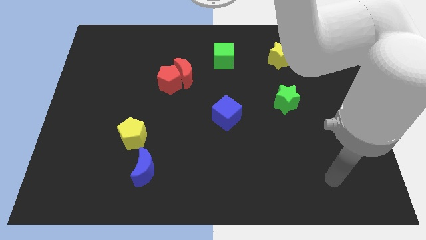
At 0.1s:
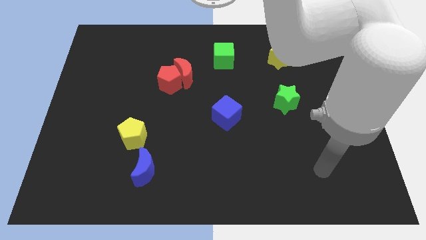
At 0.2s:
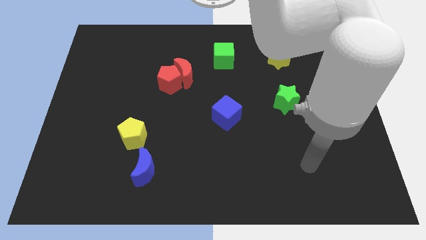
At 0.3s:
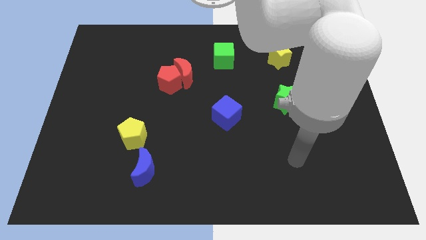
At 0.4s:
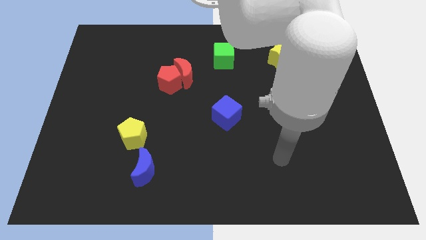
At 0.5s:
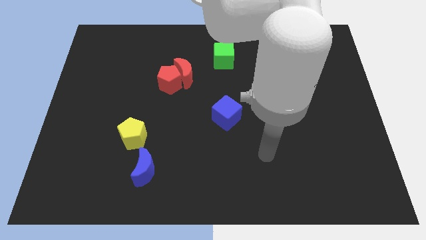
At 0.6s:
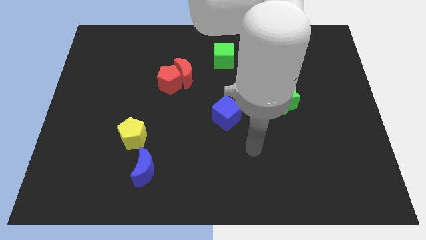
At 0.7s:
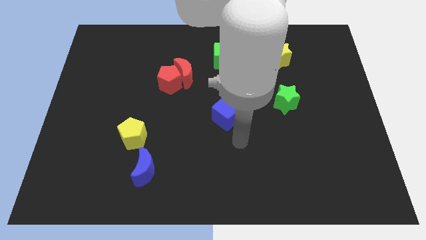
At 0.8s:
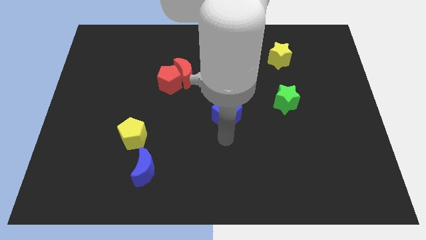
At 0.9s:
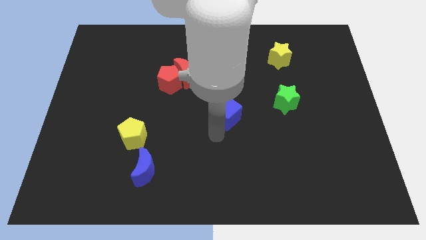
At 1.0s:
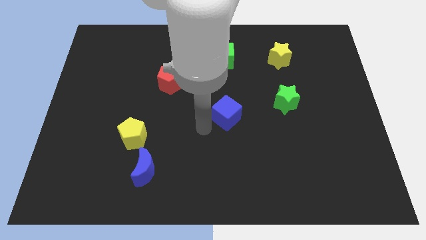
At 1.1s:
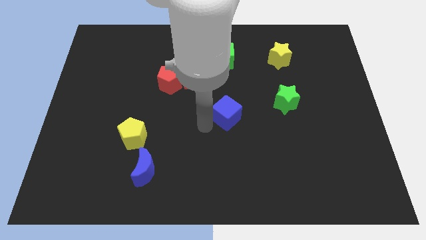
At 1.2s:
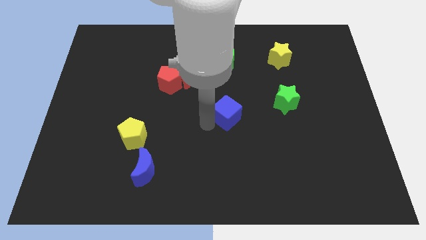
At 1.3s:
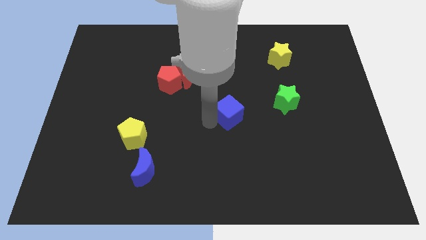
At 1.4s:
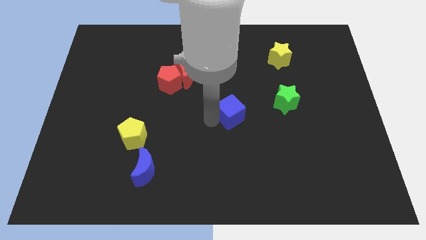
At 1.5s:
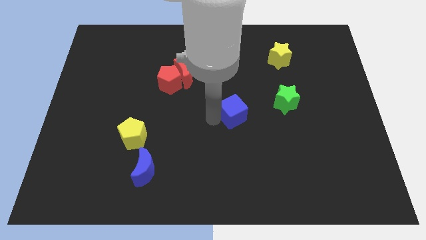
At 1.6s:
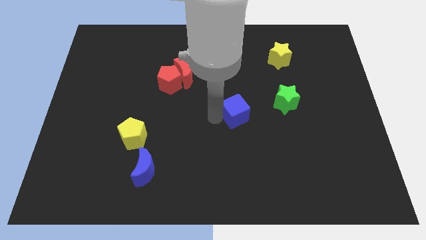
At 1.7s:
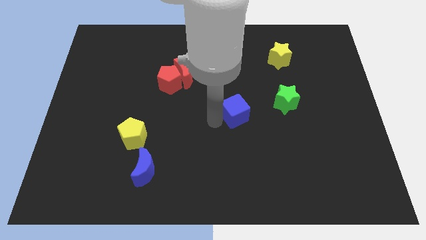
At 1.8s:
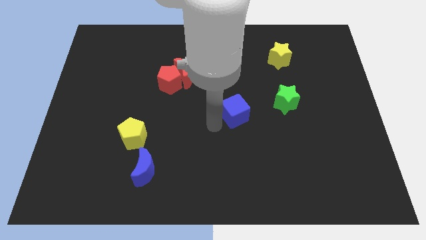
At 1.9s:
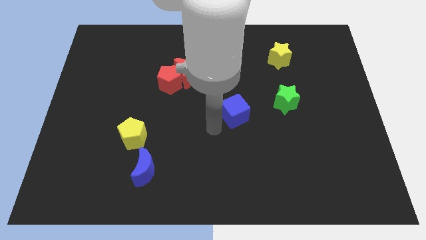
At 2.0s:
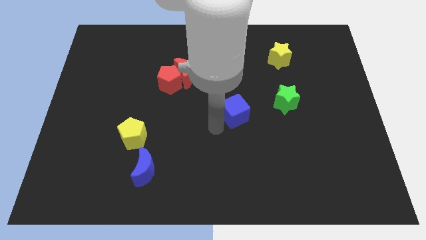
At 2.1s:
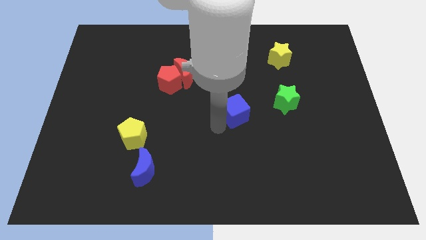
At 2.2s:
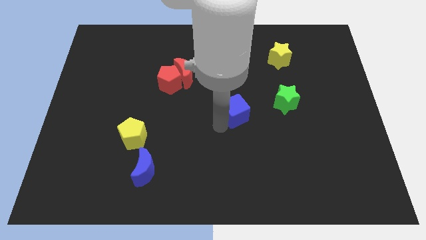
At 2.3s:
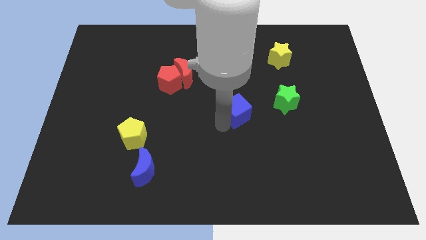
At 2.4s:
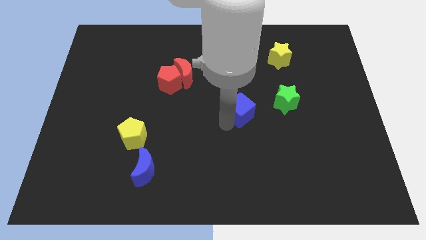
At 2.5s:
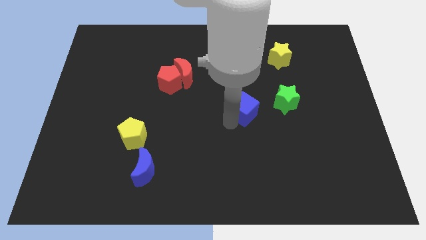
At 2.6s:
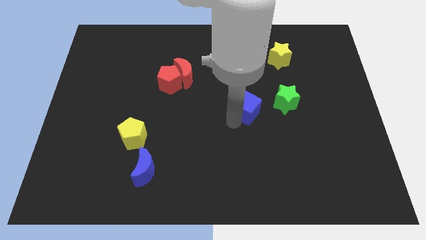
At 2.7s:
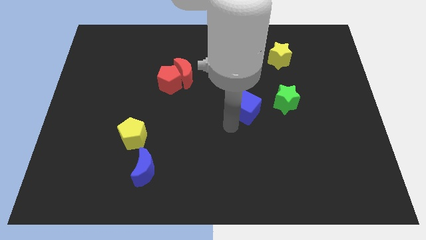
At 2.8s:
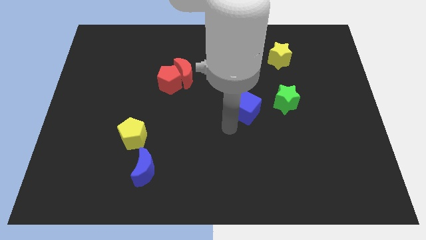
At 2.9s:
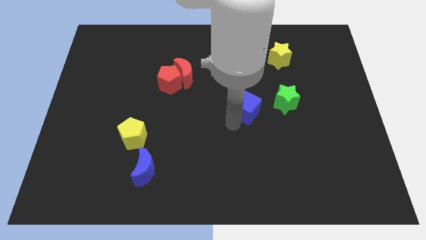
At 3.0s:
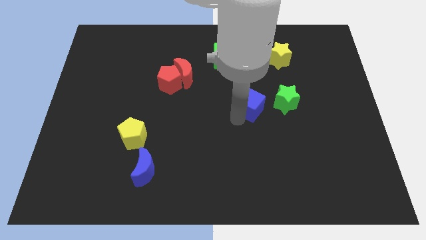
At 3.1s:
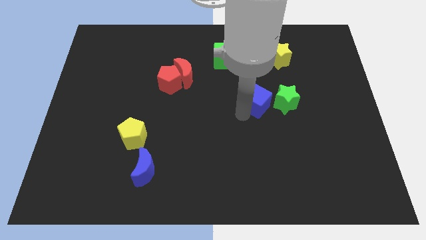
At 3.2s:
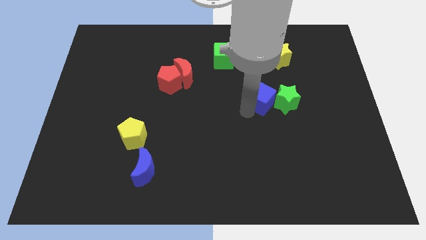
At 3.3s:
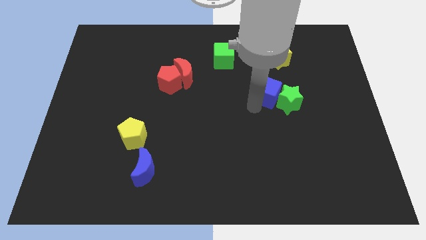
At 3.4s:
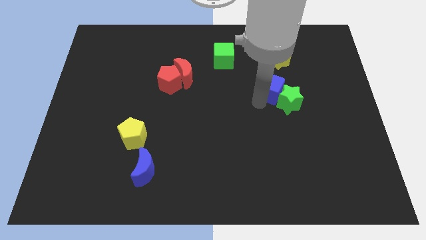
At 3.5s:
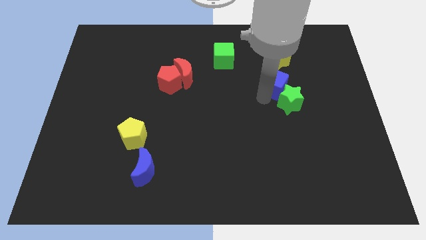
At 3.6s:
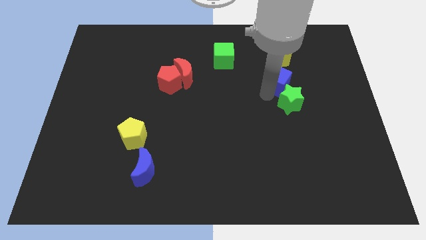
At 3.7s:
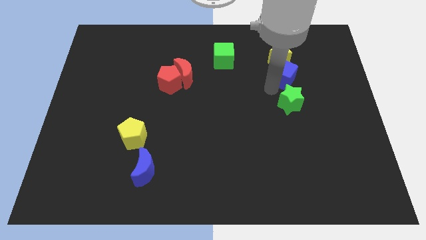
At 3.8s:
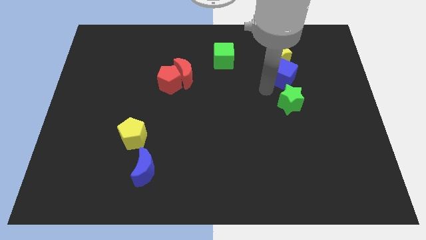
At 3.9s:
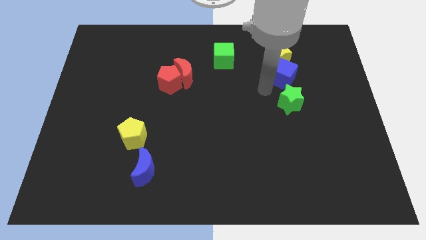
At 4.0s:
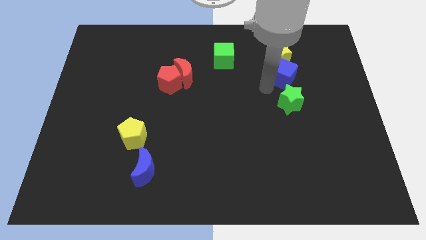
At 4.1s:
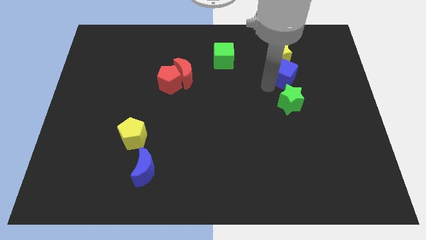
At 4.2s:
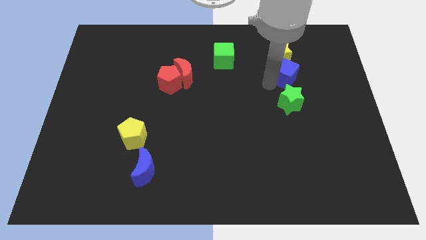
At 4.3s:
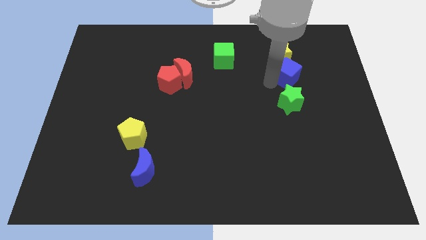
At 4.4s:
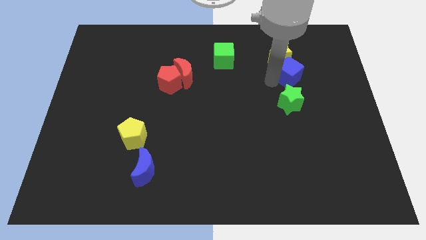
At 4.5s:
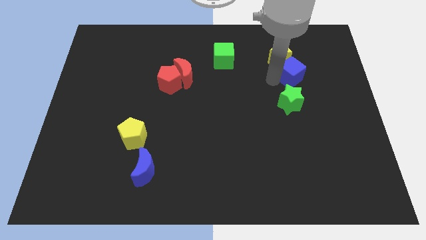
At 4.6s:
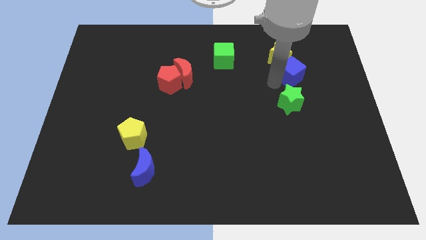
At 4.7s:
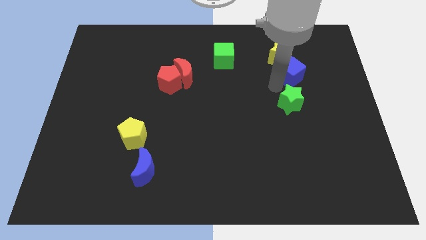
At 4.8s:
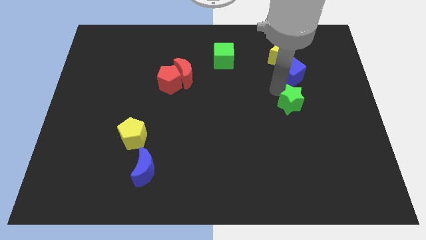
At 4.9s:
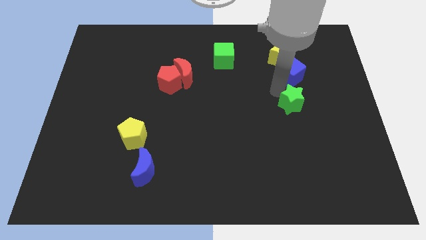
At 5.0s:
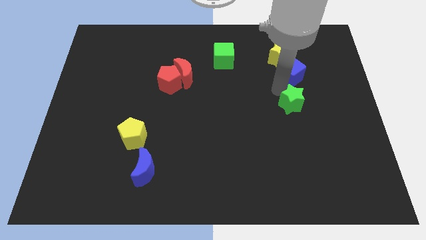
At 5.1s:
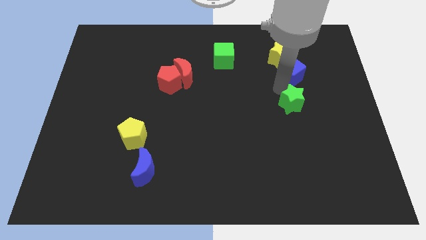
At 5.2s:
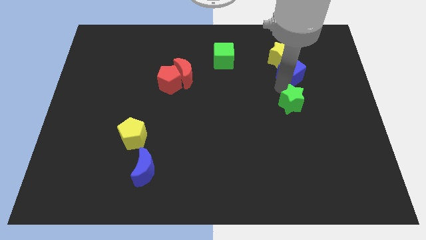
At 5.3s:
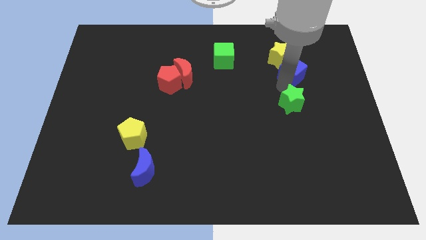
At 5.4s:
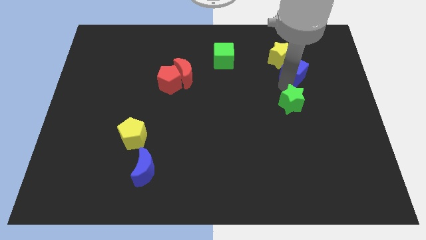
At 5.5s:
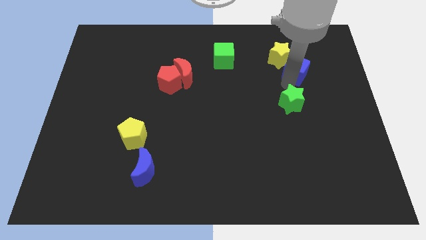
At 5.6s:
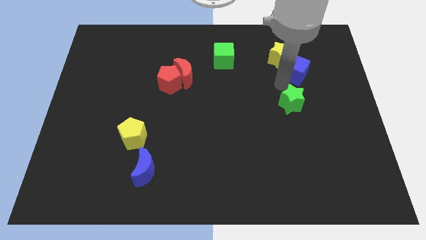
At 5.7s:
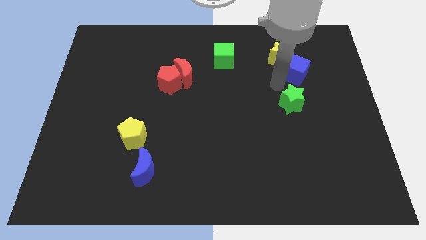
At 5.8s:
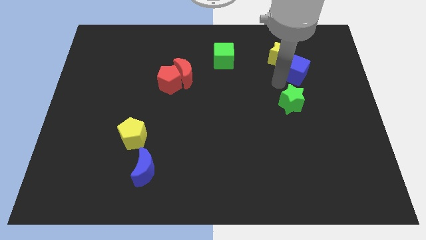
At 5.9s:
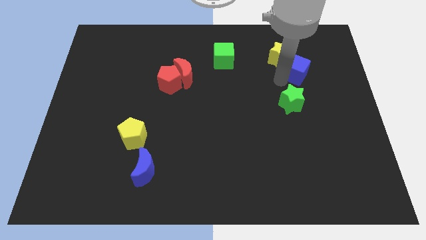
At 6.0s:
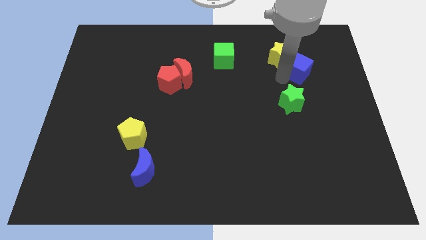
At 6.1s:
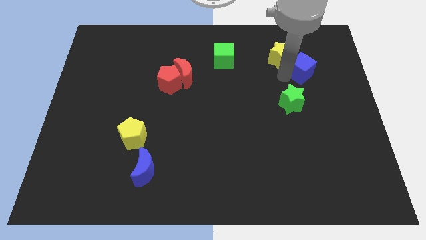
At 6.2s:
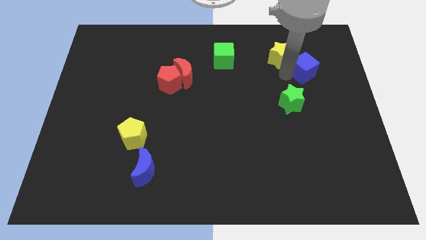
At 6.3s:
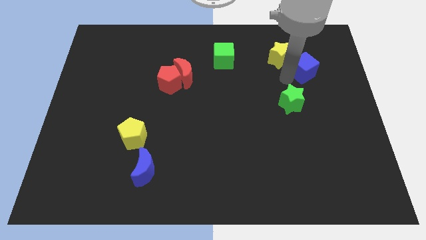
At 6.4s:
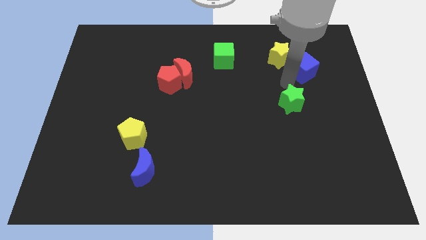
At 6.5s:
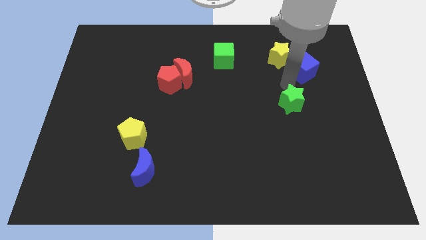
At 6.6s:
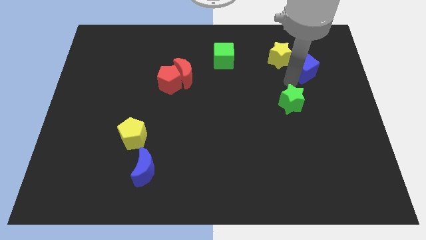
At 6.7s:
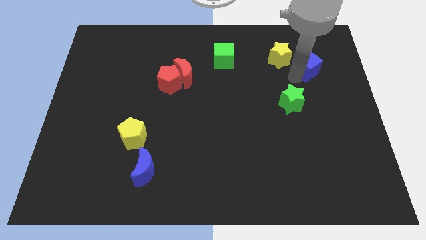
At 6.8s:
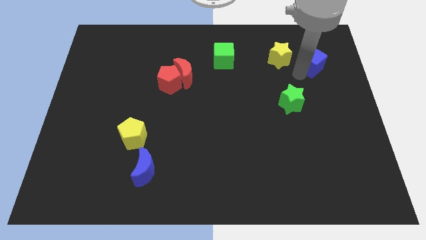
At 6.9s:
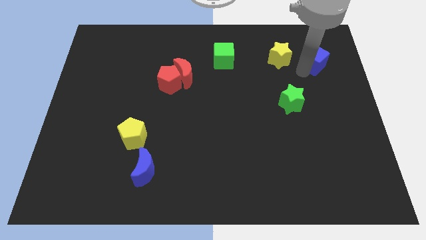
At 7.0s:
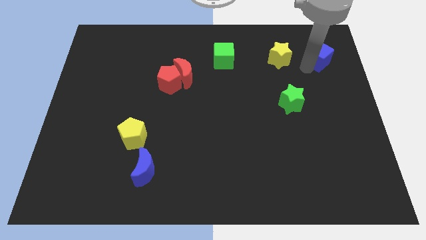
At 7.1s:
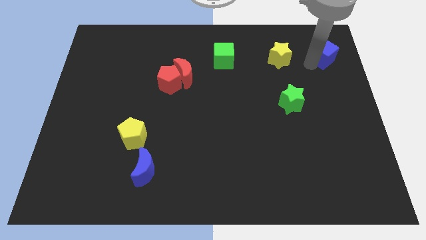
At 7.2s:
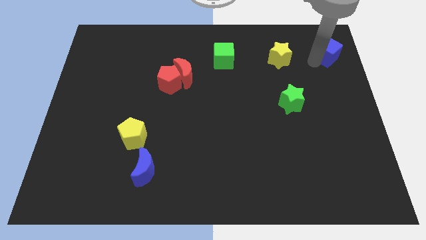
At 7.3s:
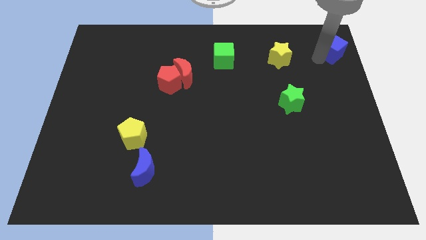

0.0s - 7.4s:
move the blue cube to the top right corner
